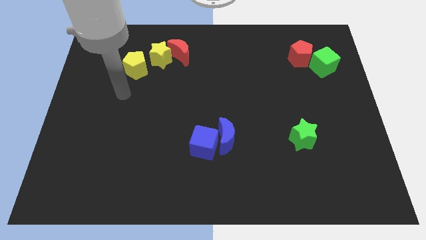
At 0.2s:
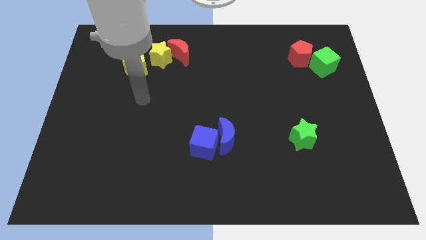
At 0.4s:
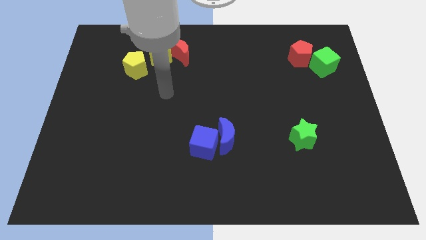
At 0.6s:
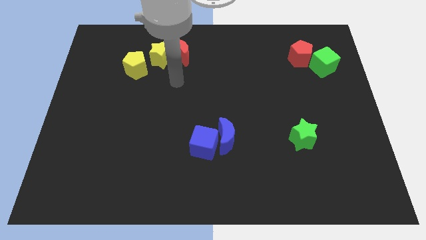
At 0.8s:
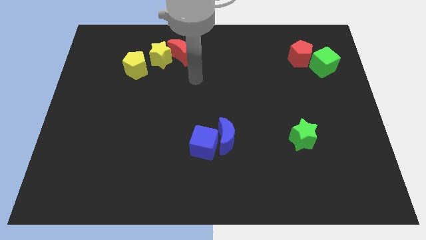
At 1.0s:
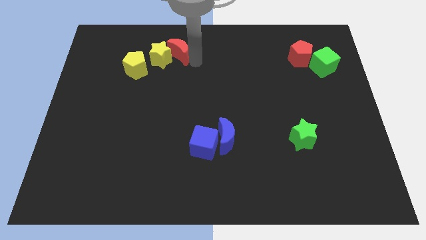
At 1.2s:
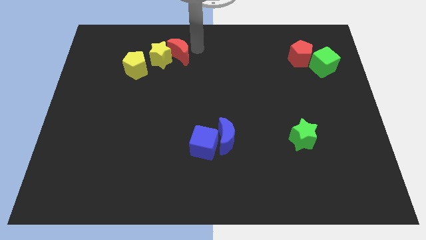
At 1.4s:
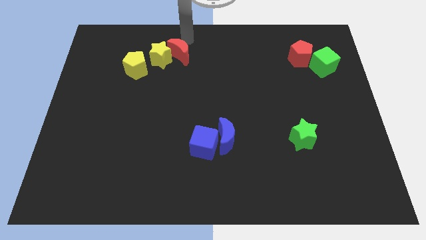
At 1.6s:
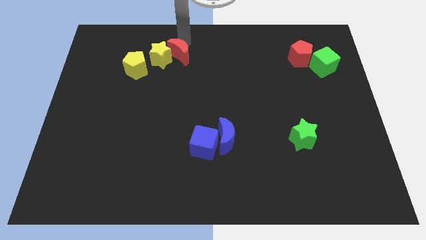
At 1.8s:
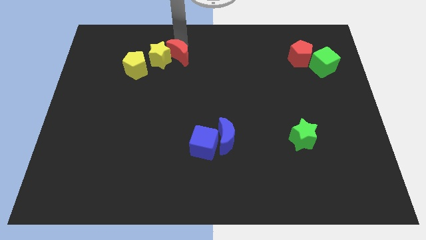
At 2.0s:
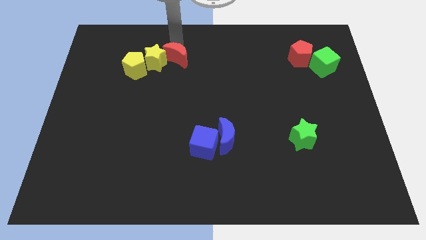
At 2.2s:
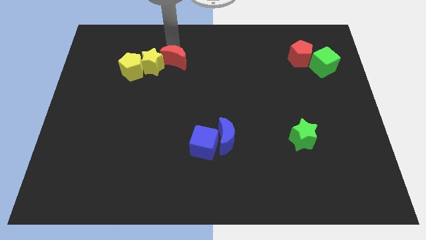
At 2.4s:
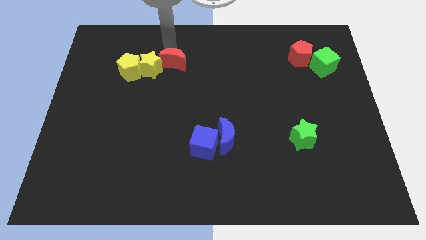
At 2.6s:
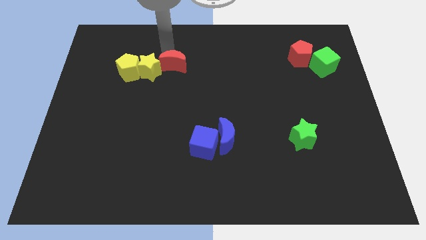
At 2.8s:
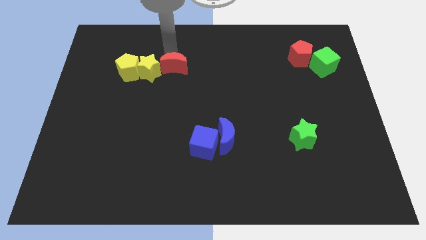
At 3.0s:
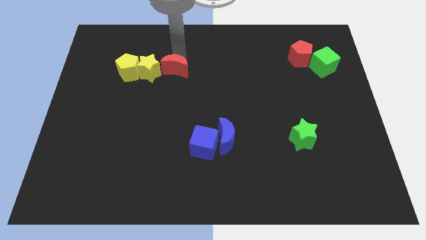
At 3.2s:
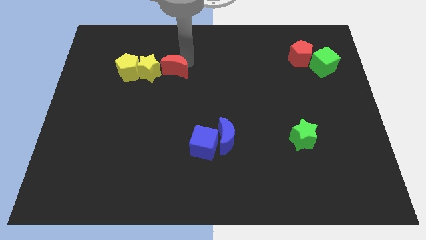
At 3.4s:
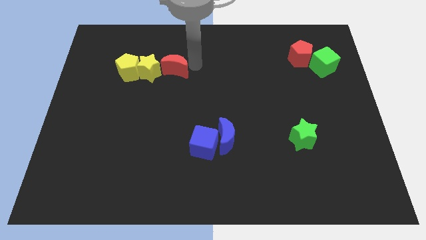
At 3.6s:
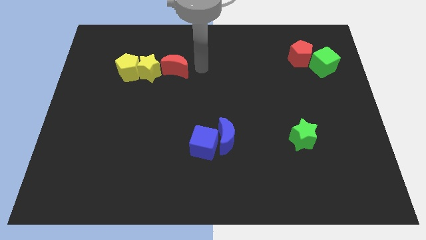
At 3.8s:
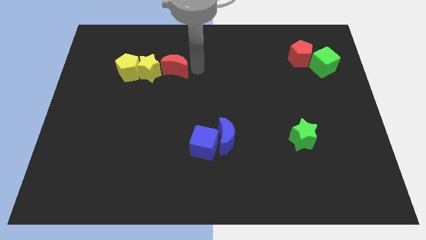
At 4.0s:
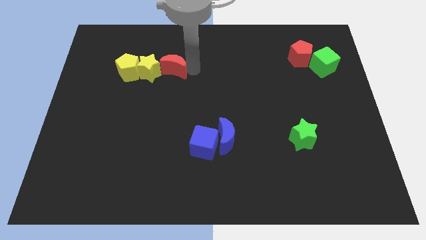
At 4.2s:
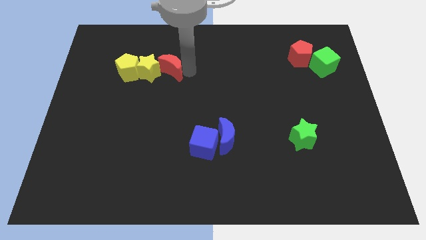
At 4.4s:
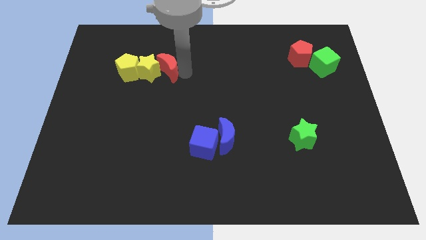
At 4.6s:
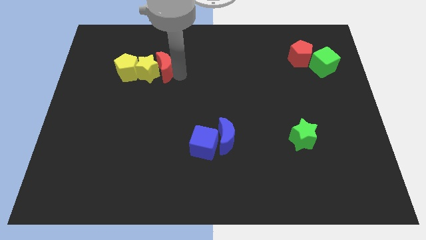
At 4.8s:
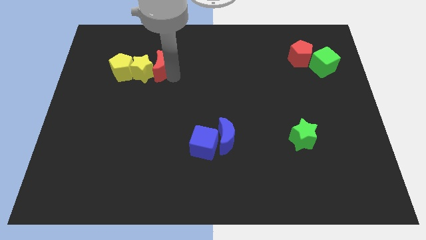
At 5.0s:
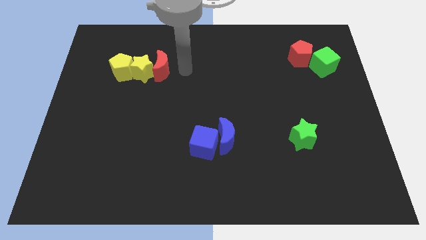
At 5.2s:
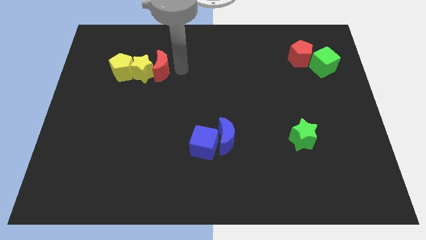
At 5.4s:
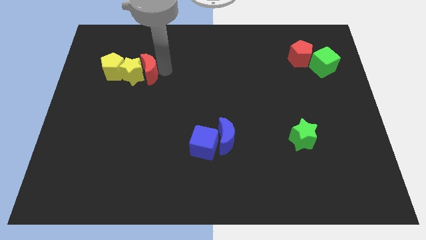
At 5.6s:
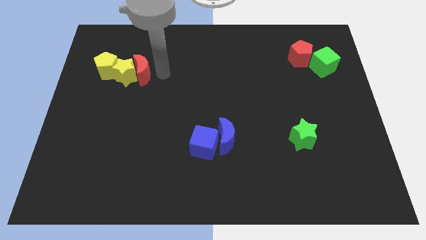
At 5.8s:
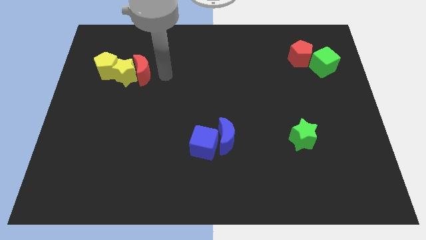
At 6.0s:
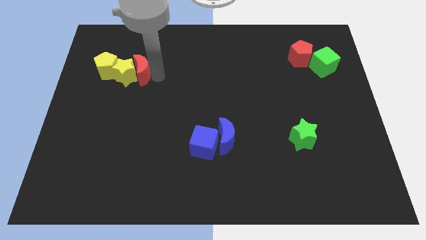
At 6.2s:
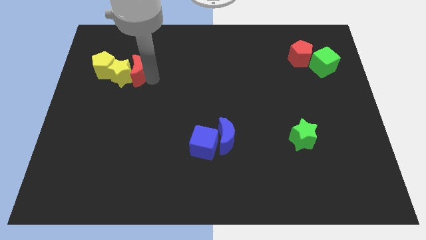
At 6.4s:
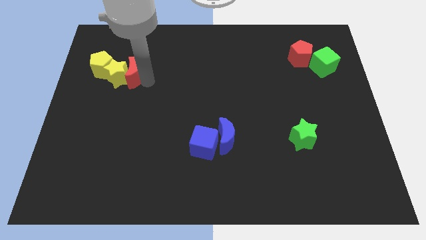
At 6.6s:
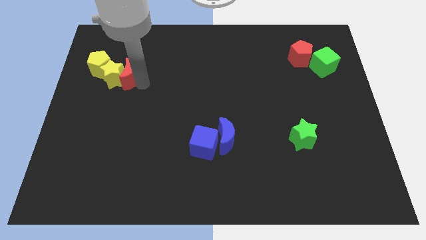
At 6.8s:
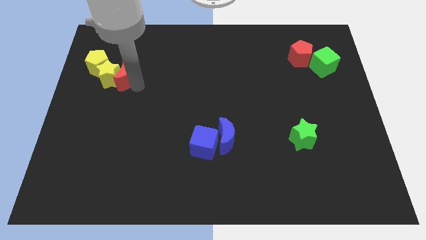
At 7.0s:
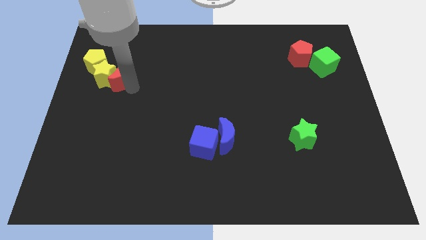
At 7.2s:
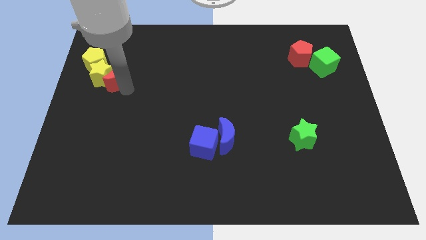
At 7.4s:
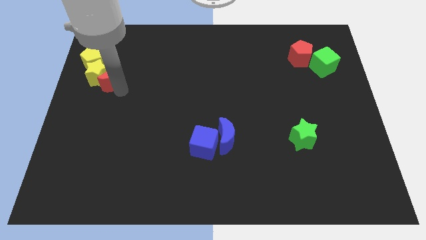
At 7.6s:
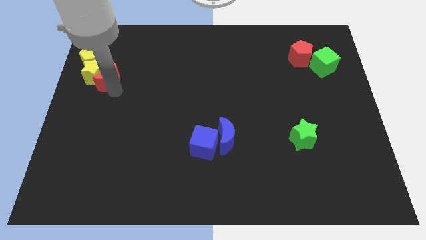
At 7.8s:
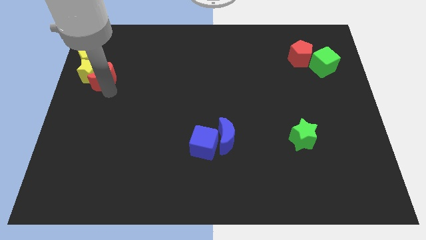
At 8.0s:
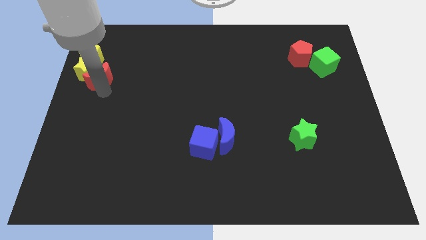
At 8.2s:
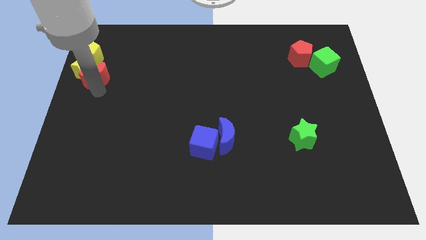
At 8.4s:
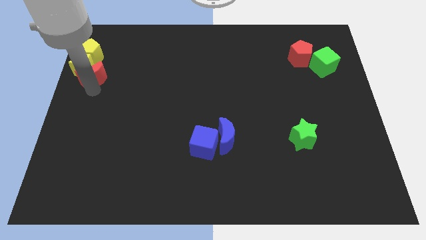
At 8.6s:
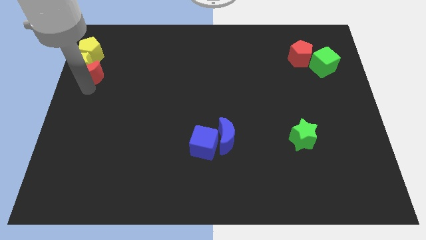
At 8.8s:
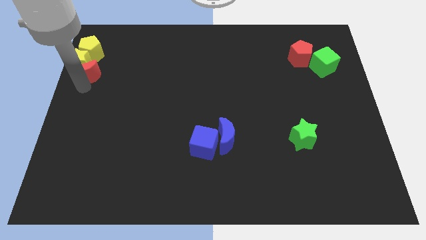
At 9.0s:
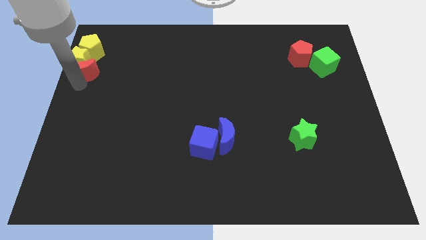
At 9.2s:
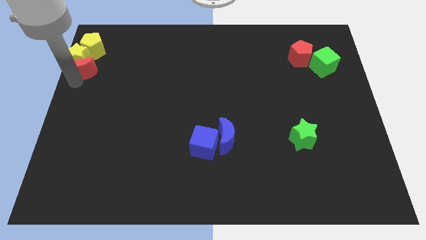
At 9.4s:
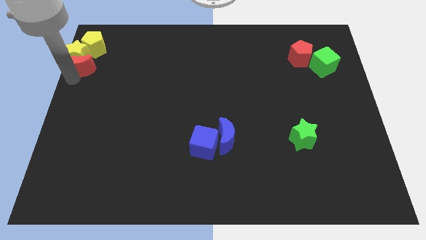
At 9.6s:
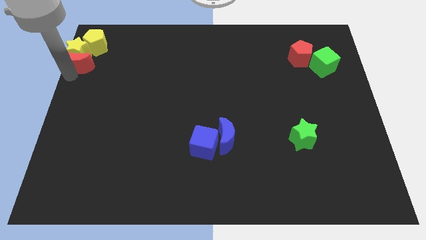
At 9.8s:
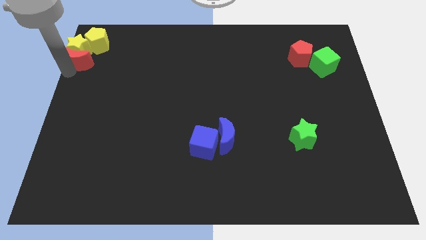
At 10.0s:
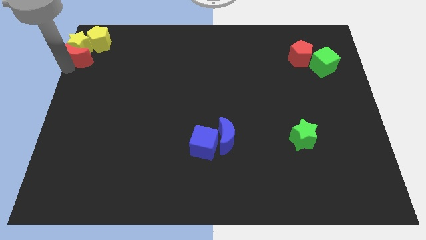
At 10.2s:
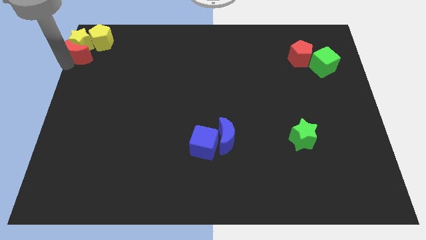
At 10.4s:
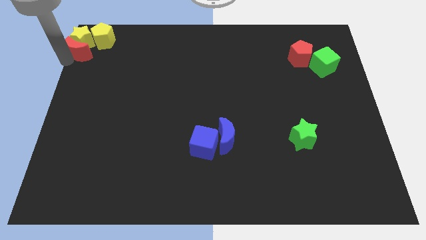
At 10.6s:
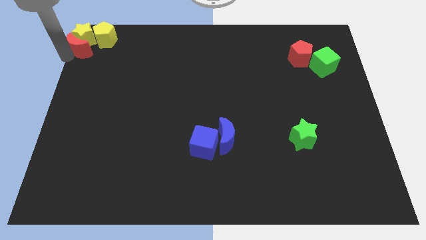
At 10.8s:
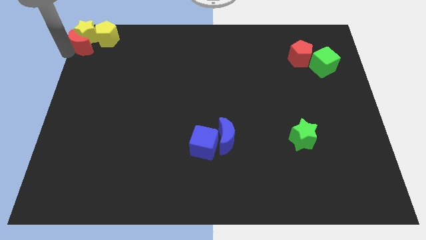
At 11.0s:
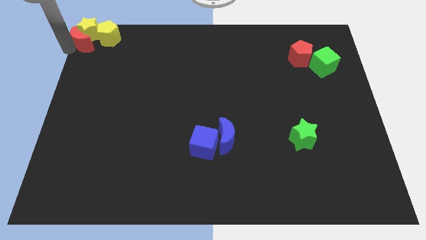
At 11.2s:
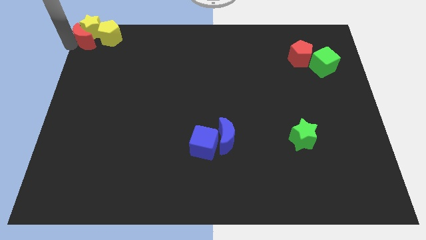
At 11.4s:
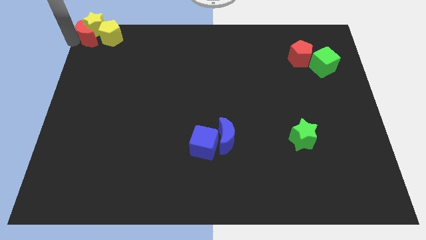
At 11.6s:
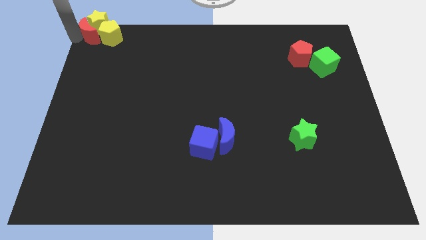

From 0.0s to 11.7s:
push the red moon next to the yellow pentagon

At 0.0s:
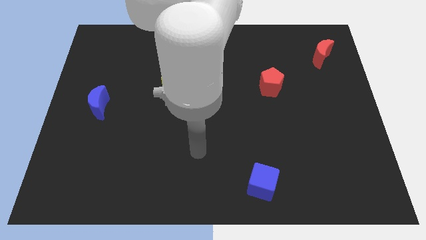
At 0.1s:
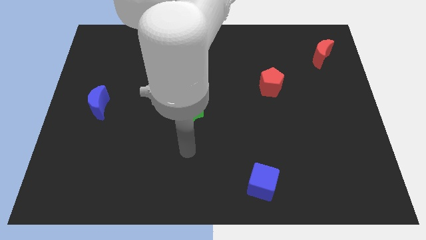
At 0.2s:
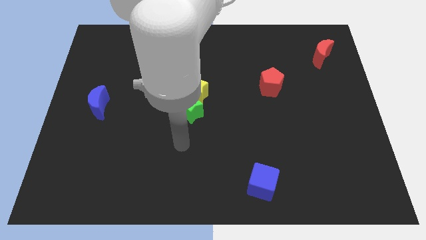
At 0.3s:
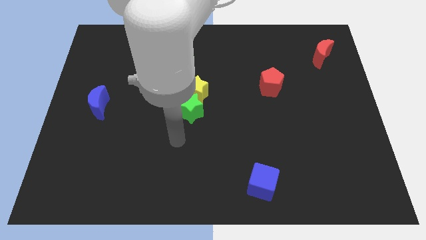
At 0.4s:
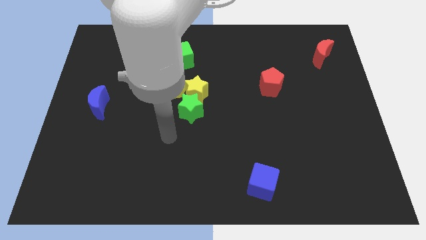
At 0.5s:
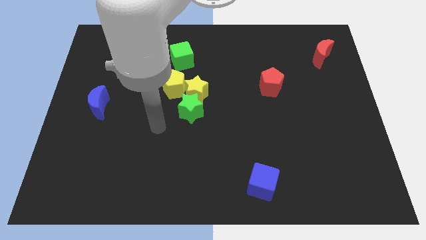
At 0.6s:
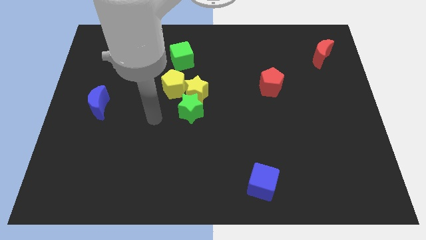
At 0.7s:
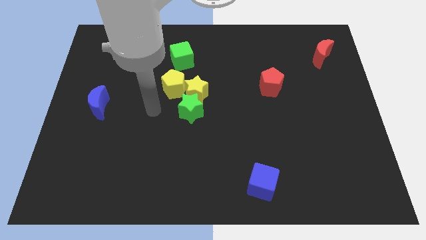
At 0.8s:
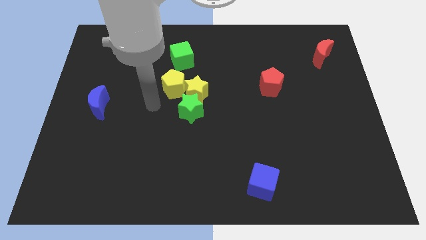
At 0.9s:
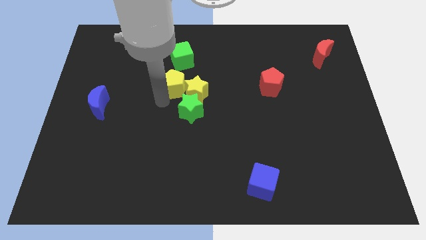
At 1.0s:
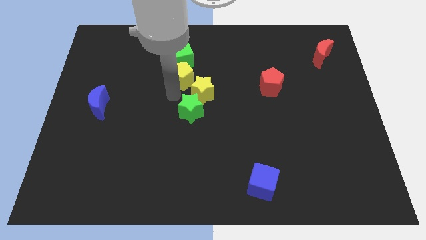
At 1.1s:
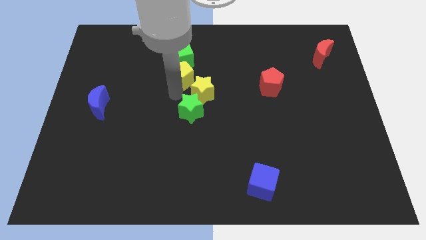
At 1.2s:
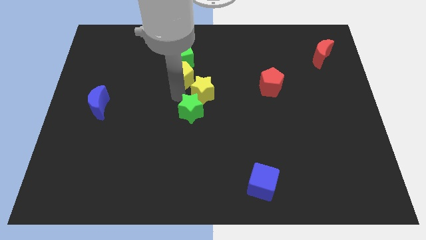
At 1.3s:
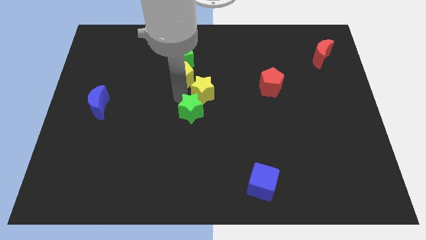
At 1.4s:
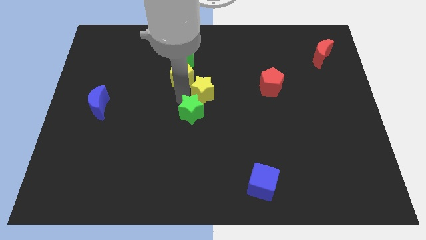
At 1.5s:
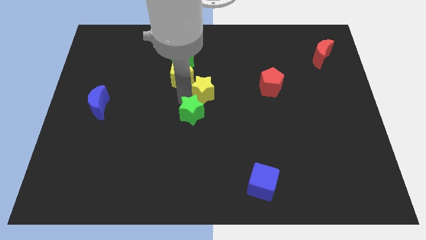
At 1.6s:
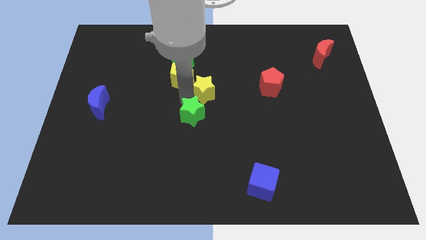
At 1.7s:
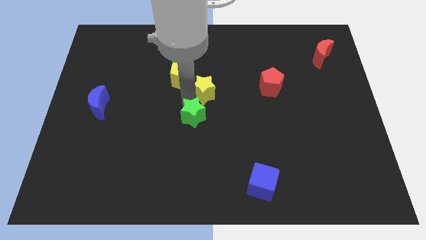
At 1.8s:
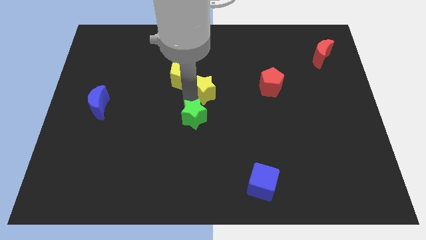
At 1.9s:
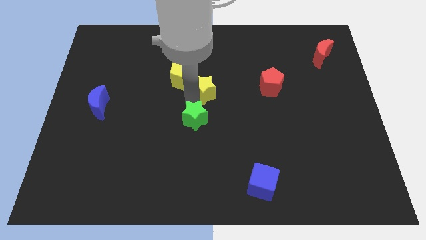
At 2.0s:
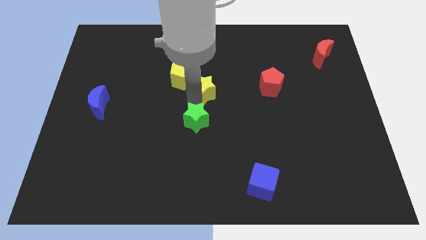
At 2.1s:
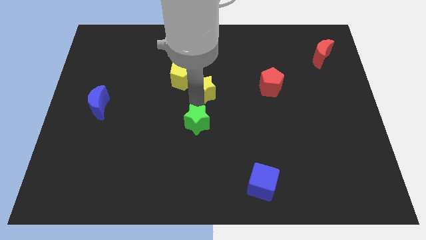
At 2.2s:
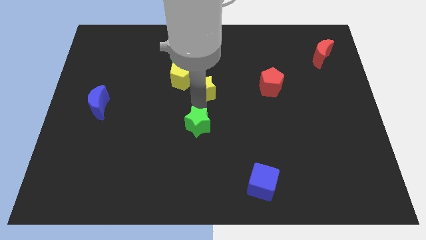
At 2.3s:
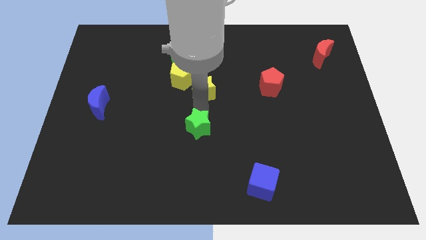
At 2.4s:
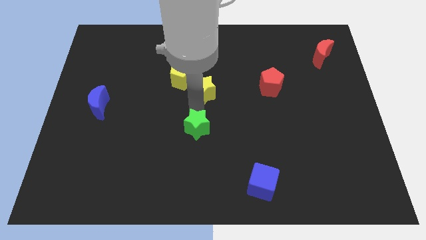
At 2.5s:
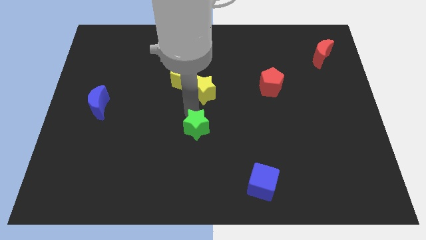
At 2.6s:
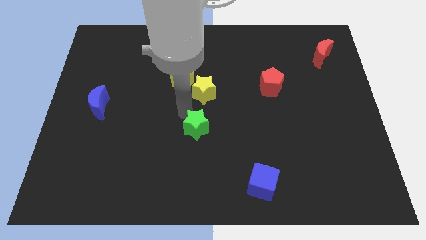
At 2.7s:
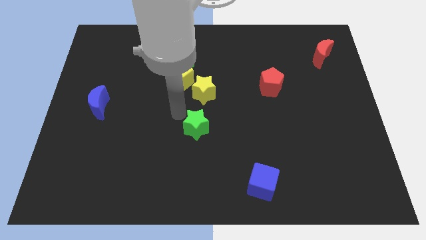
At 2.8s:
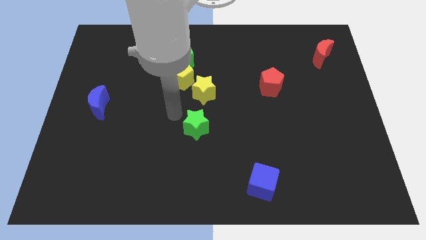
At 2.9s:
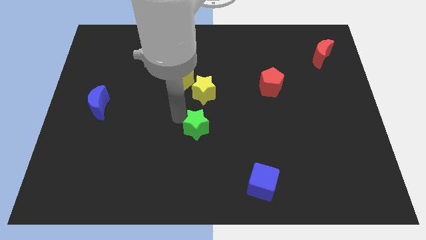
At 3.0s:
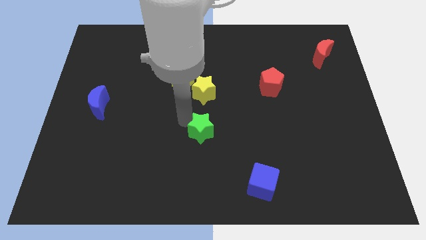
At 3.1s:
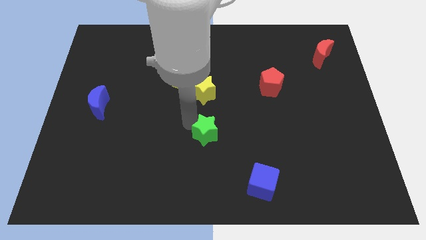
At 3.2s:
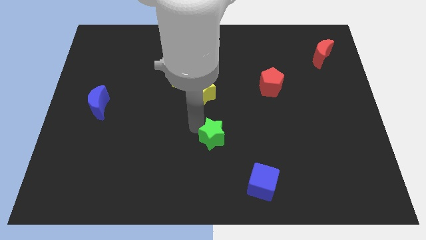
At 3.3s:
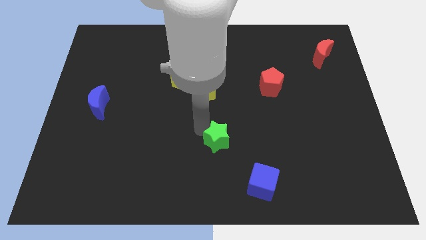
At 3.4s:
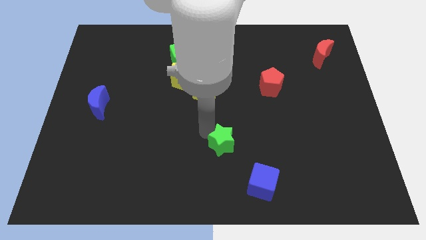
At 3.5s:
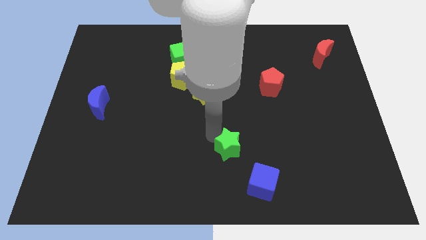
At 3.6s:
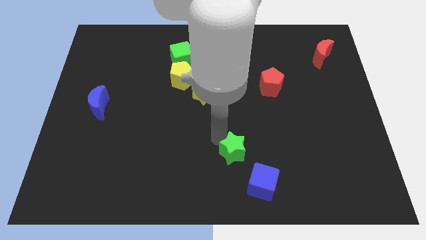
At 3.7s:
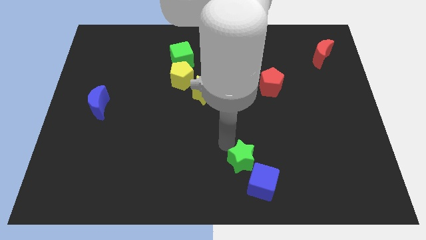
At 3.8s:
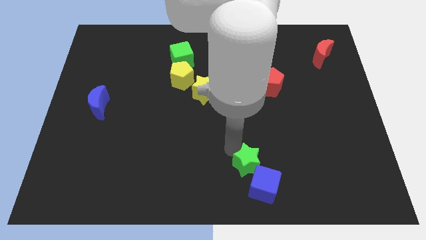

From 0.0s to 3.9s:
slide the green star towards the blue cube
